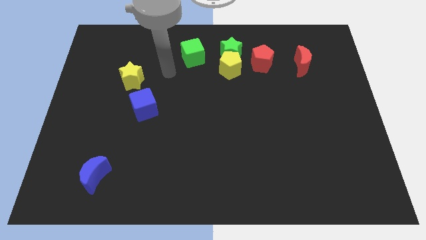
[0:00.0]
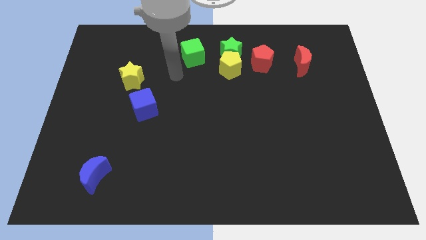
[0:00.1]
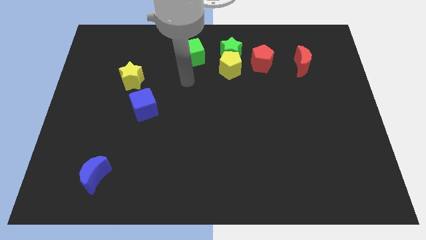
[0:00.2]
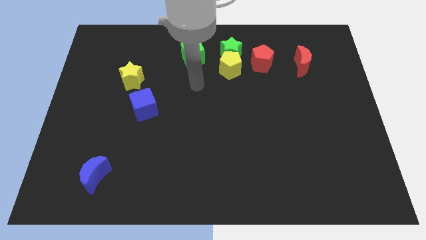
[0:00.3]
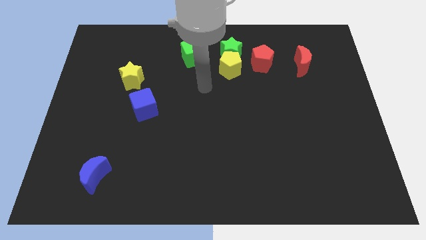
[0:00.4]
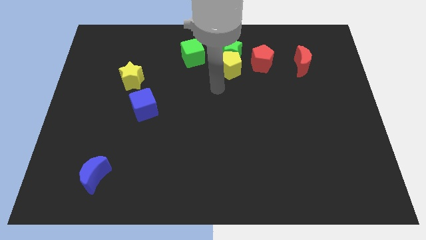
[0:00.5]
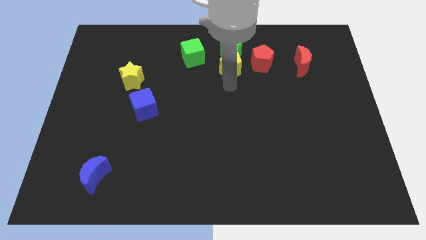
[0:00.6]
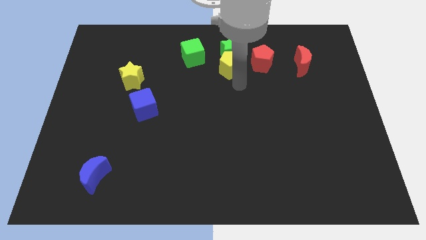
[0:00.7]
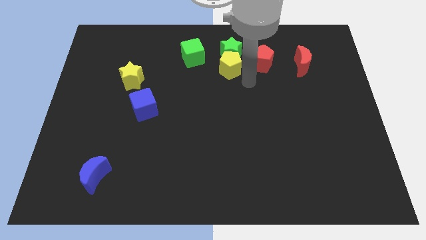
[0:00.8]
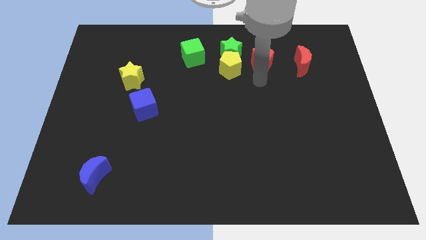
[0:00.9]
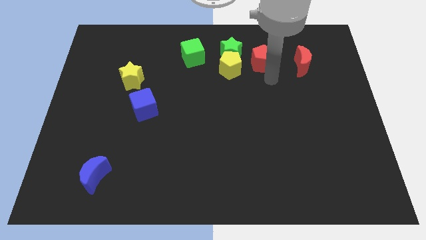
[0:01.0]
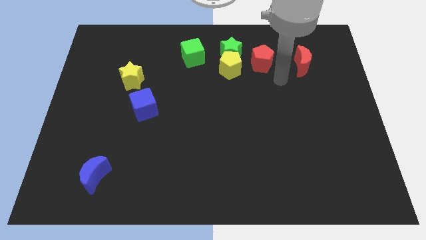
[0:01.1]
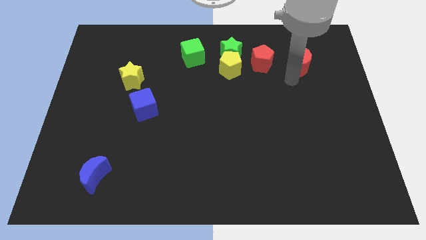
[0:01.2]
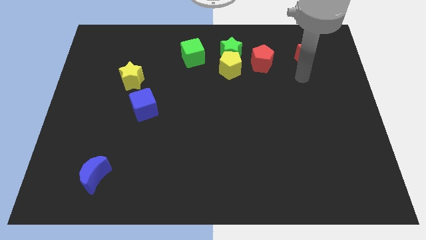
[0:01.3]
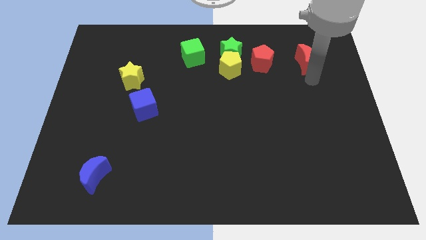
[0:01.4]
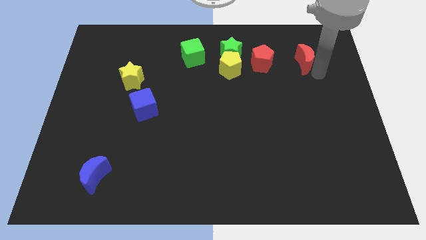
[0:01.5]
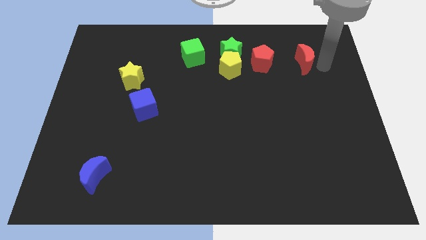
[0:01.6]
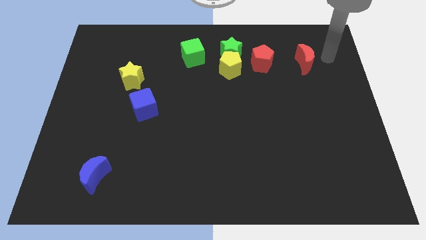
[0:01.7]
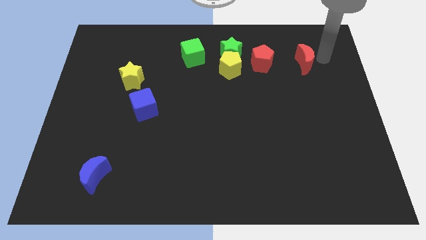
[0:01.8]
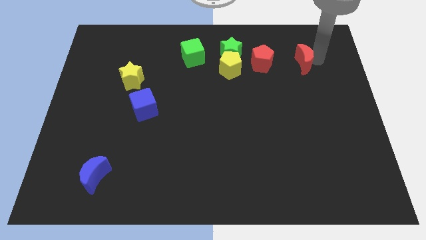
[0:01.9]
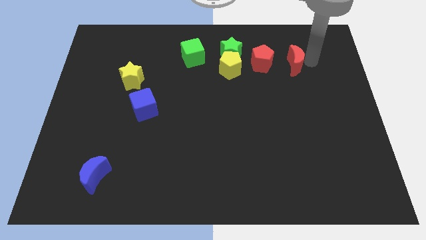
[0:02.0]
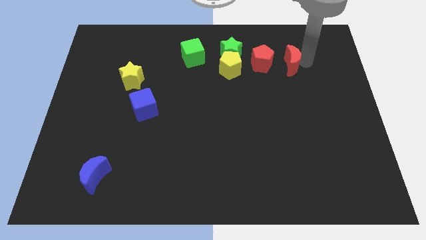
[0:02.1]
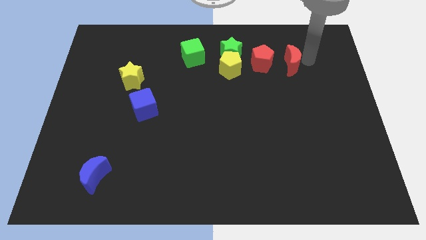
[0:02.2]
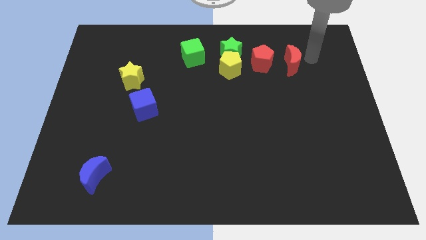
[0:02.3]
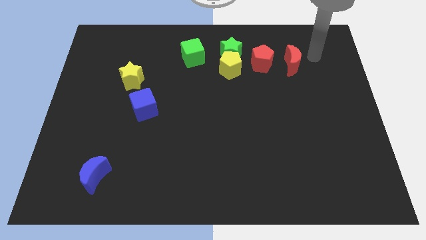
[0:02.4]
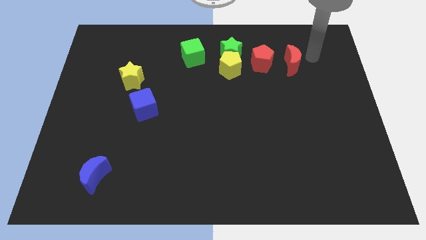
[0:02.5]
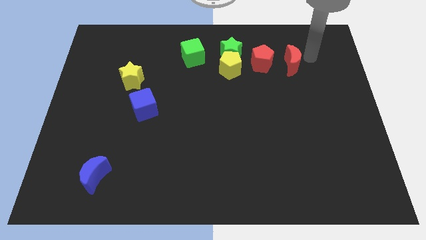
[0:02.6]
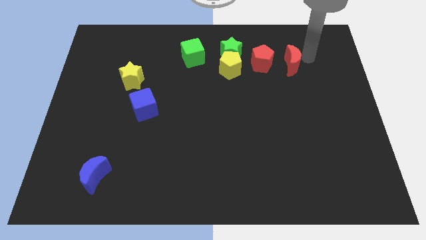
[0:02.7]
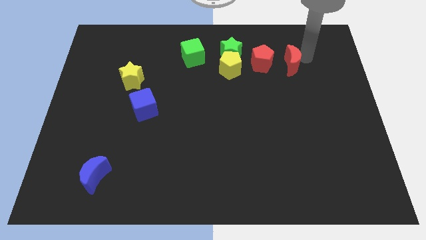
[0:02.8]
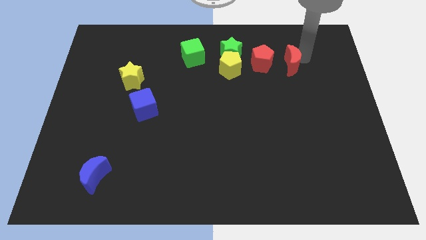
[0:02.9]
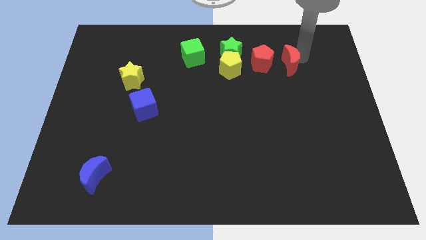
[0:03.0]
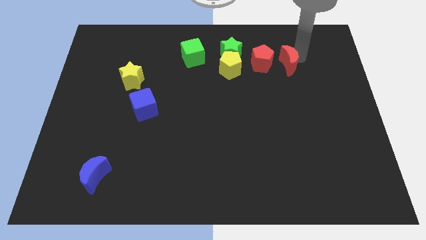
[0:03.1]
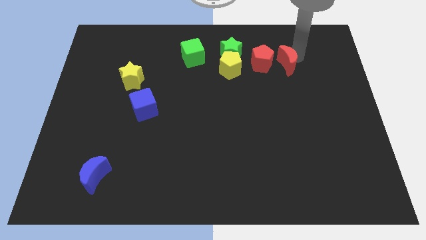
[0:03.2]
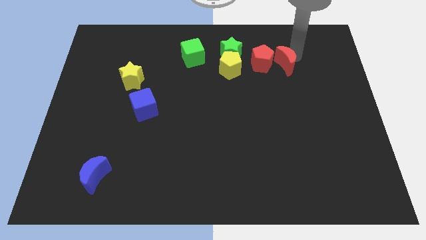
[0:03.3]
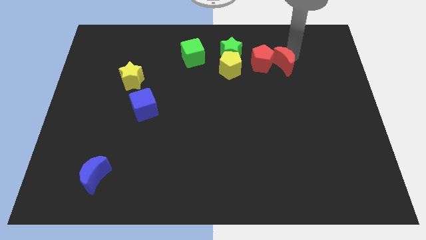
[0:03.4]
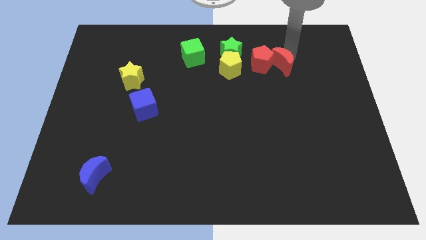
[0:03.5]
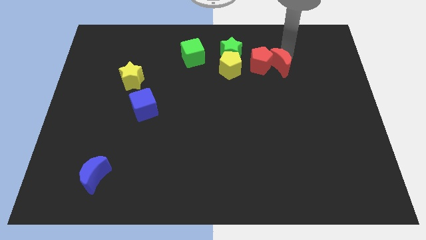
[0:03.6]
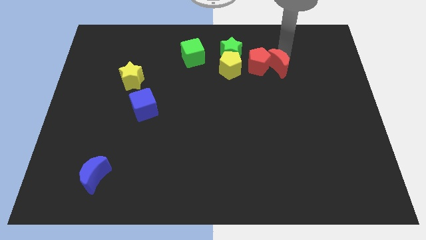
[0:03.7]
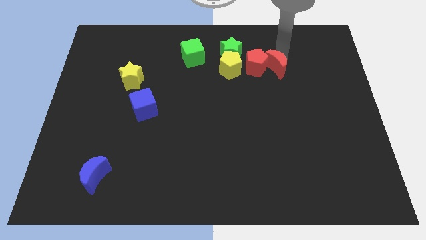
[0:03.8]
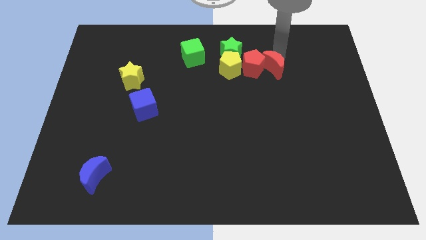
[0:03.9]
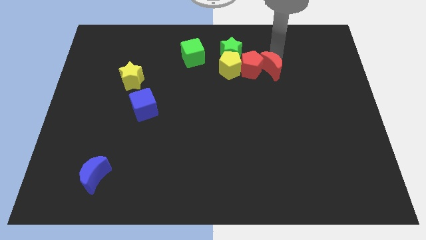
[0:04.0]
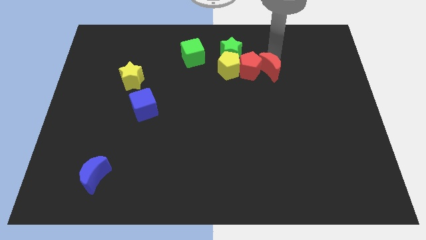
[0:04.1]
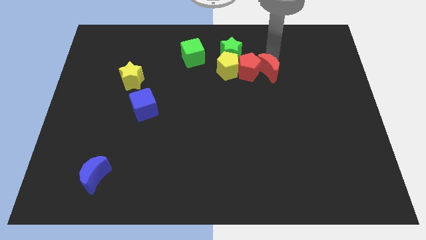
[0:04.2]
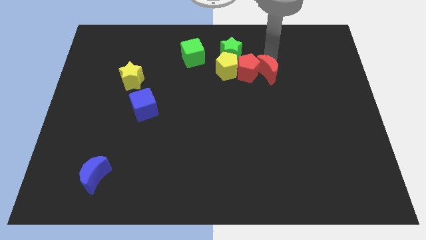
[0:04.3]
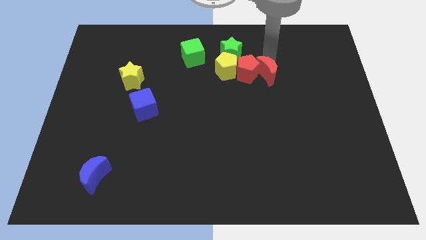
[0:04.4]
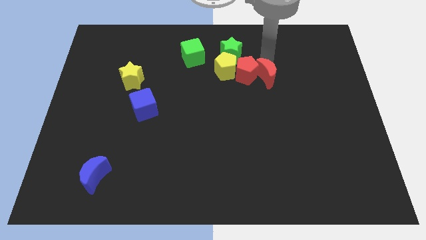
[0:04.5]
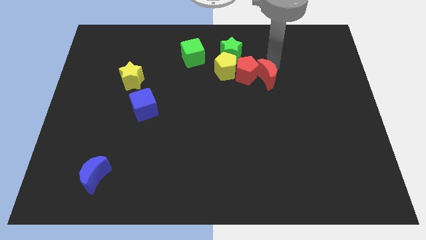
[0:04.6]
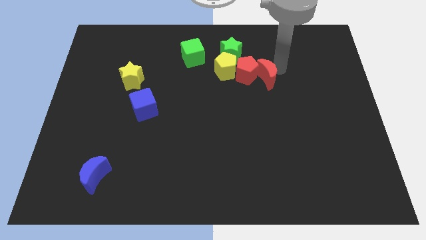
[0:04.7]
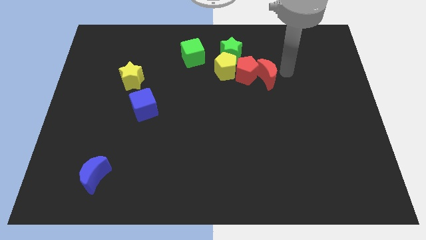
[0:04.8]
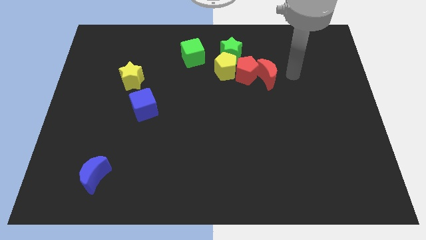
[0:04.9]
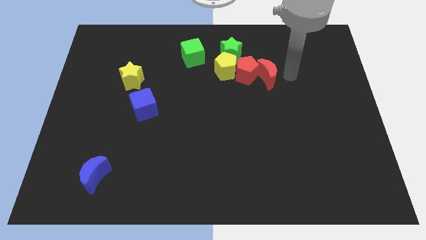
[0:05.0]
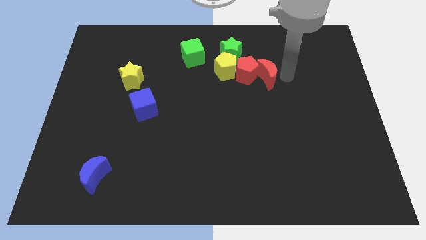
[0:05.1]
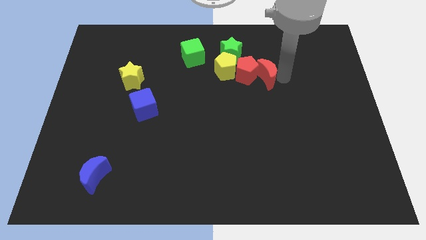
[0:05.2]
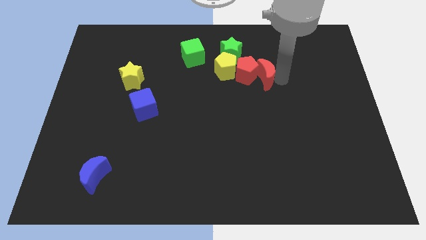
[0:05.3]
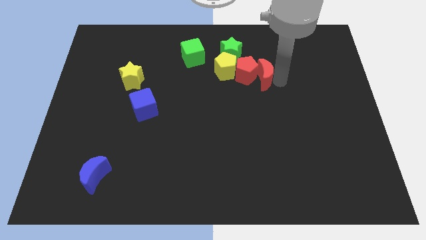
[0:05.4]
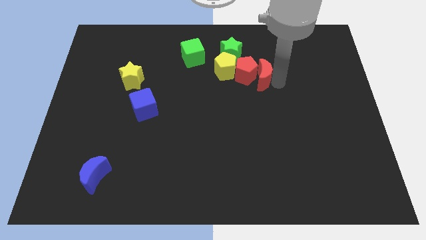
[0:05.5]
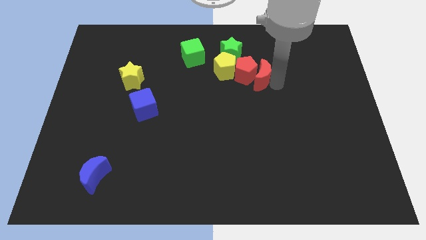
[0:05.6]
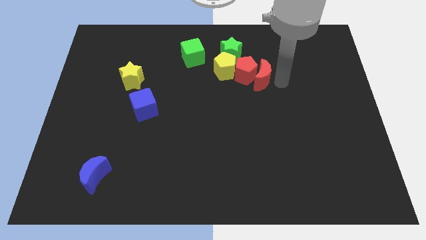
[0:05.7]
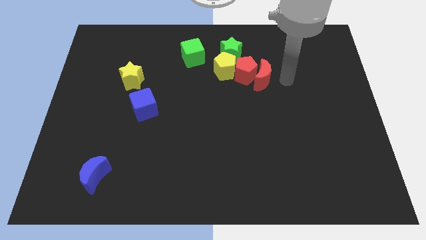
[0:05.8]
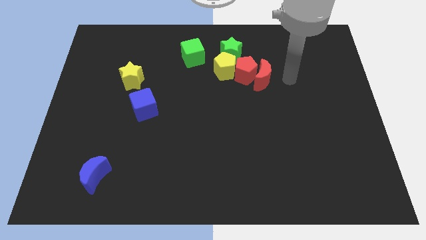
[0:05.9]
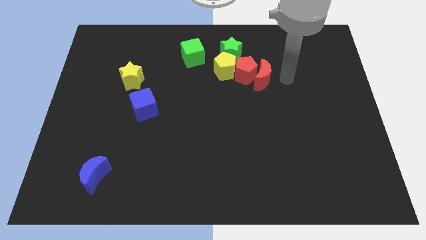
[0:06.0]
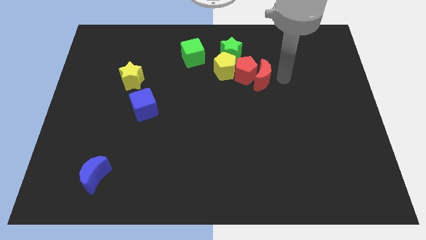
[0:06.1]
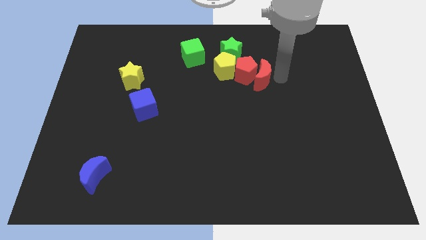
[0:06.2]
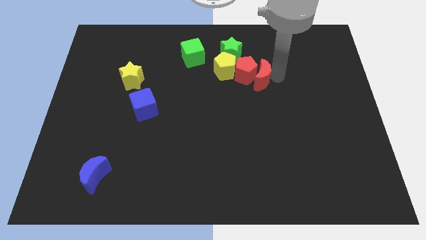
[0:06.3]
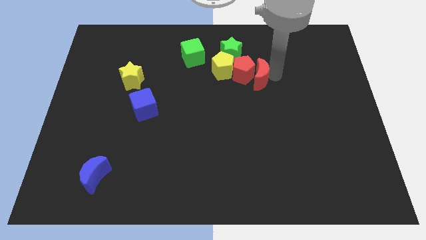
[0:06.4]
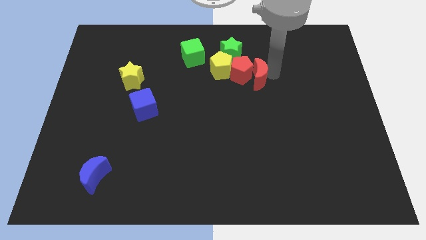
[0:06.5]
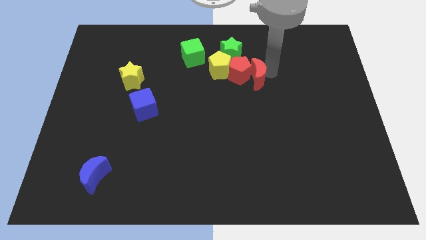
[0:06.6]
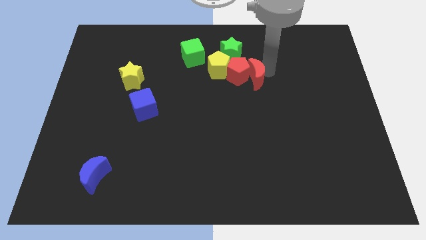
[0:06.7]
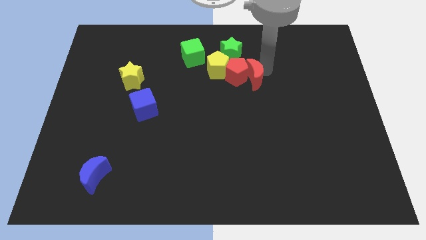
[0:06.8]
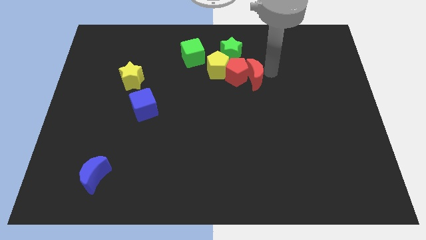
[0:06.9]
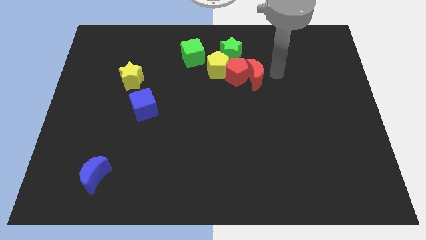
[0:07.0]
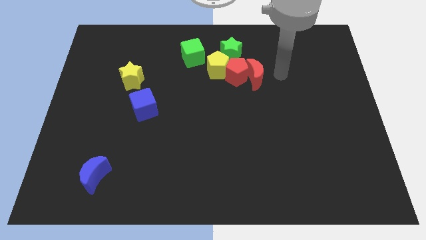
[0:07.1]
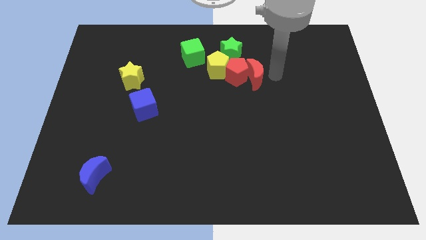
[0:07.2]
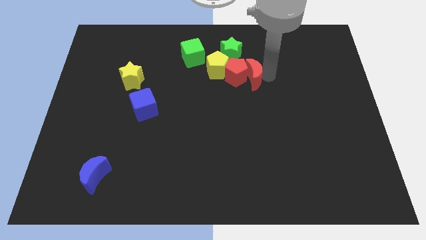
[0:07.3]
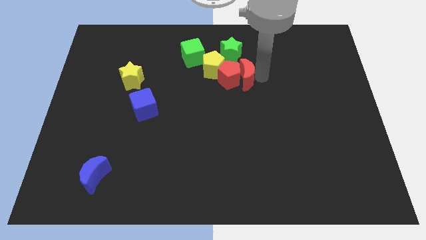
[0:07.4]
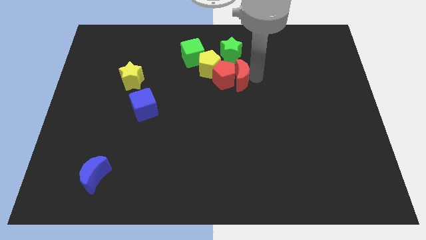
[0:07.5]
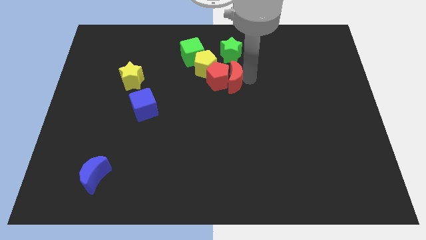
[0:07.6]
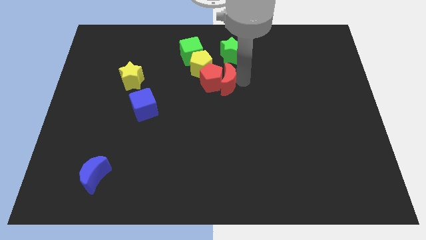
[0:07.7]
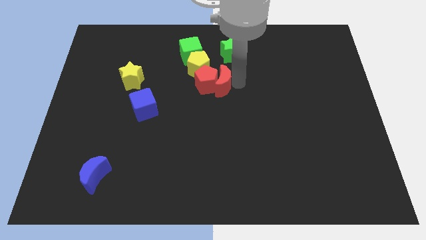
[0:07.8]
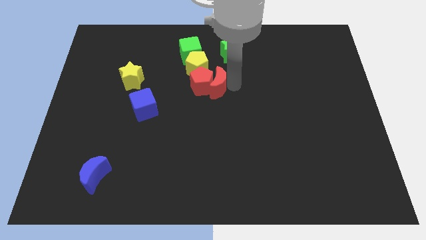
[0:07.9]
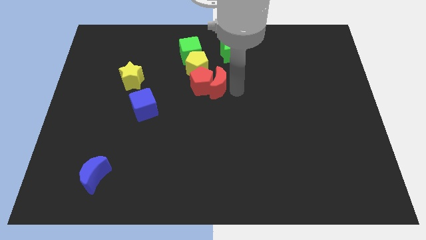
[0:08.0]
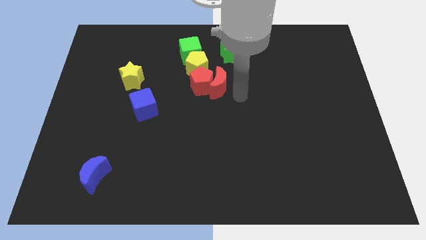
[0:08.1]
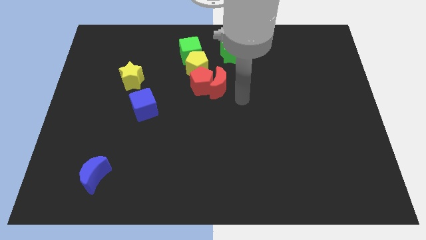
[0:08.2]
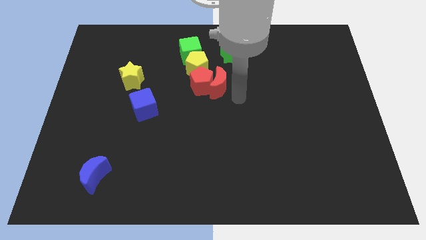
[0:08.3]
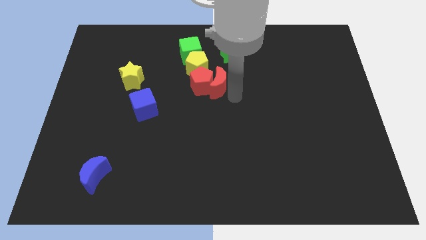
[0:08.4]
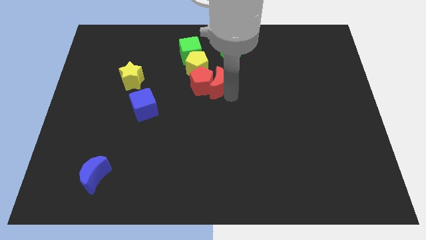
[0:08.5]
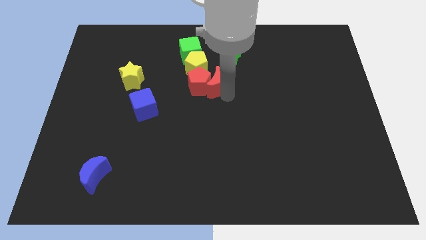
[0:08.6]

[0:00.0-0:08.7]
push the red moon left
